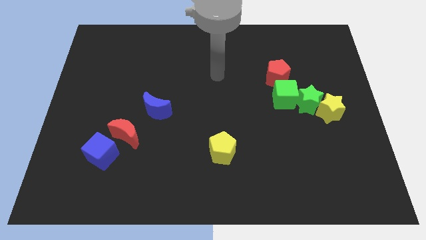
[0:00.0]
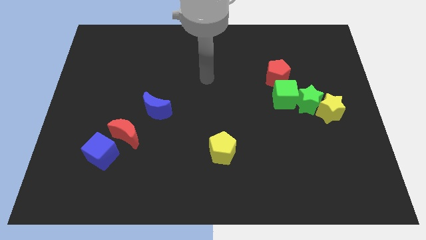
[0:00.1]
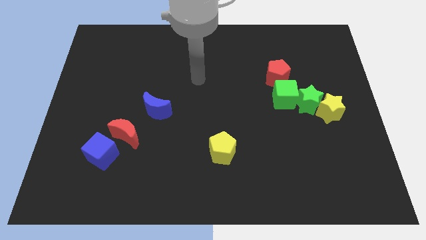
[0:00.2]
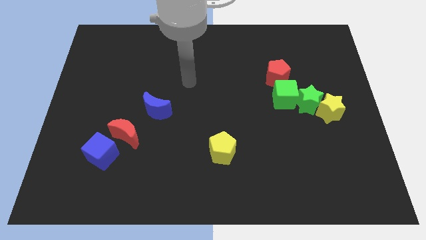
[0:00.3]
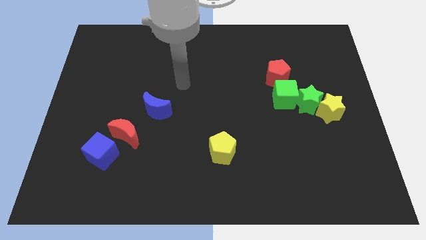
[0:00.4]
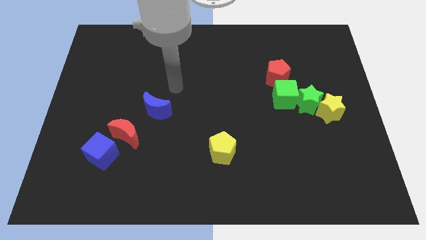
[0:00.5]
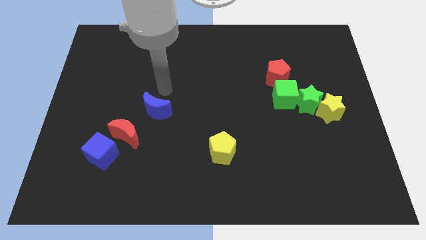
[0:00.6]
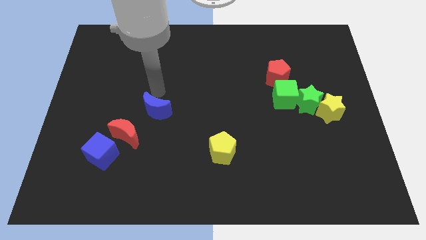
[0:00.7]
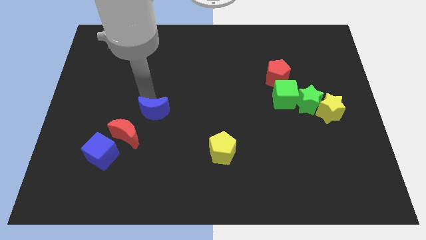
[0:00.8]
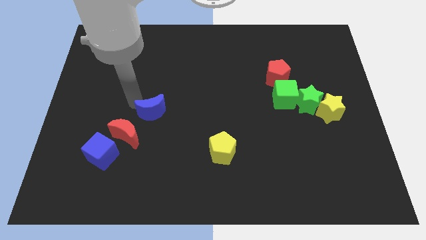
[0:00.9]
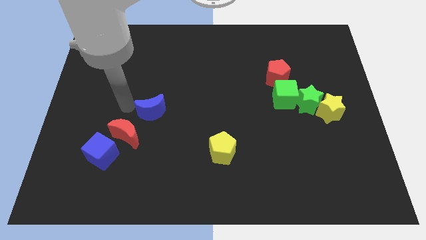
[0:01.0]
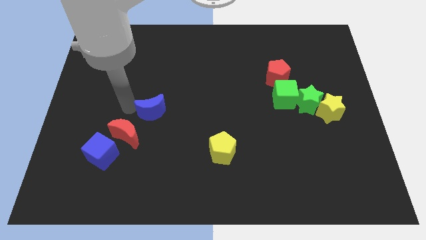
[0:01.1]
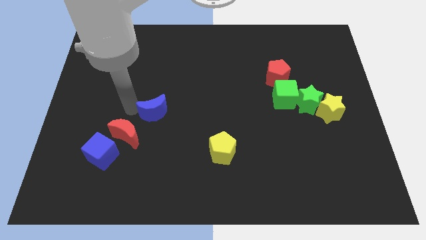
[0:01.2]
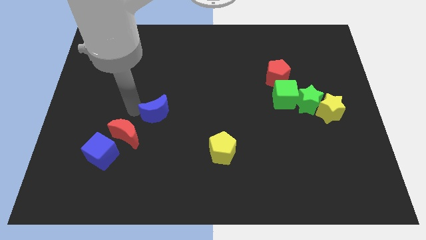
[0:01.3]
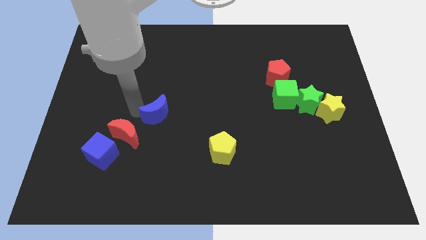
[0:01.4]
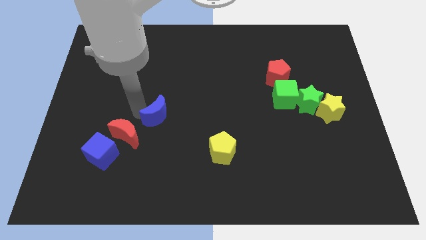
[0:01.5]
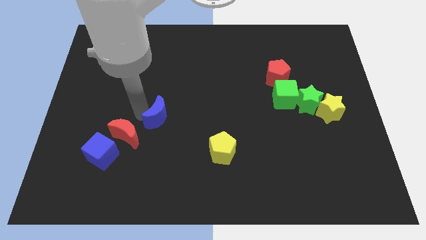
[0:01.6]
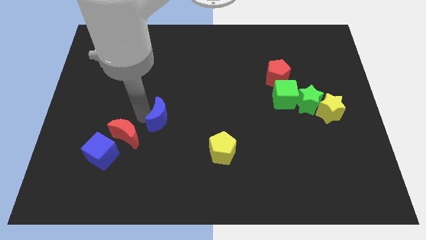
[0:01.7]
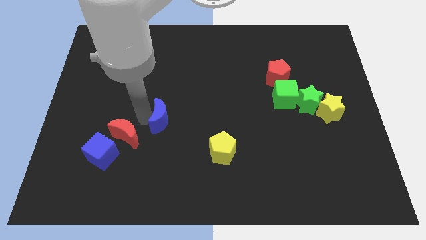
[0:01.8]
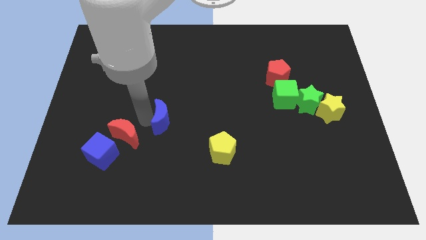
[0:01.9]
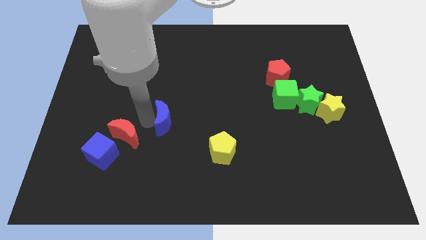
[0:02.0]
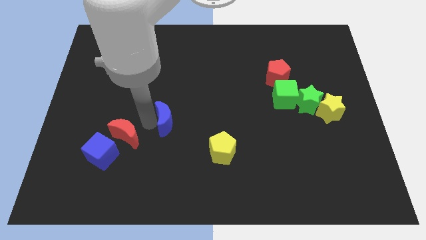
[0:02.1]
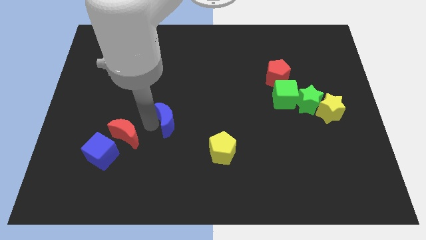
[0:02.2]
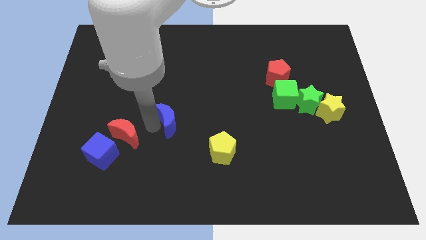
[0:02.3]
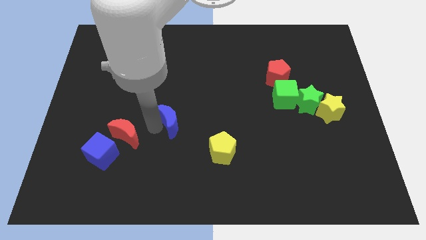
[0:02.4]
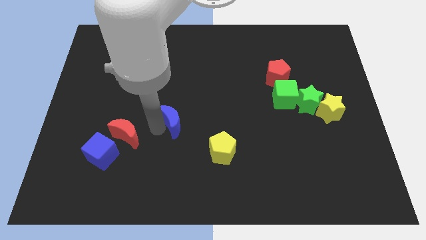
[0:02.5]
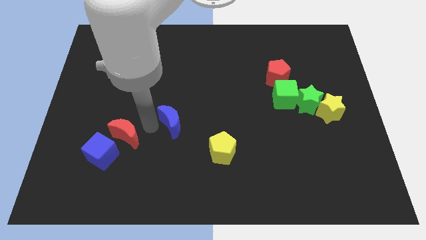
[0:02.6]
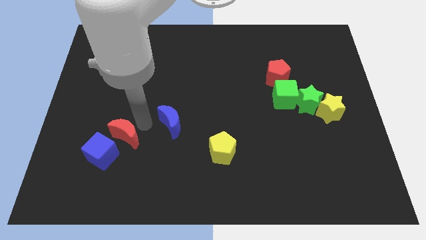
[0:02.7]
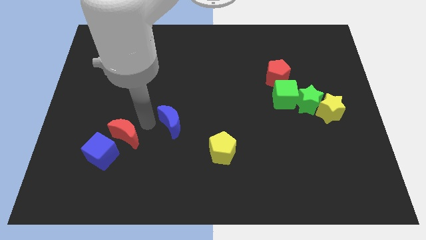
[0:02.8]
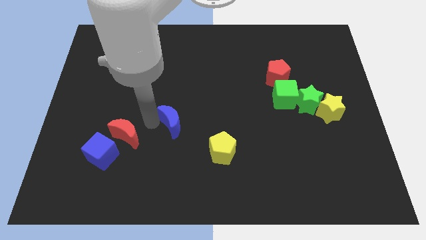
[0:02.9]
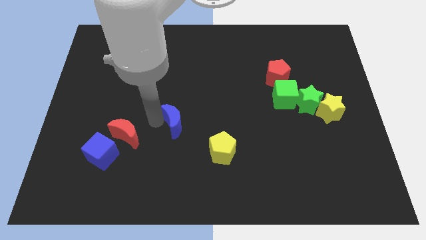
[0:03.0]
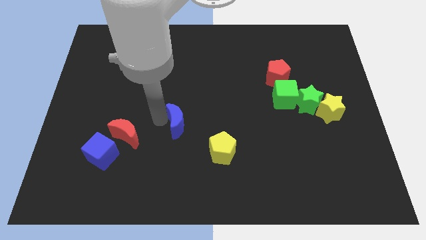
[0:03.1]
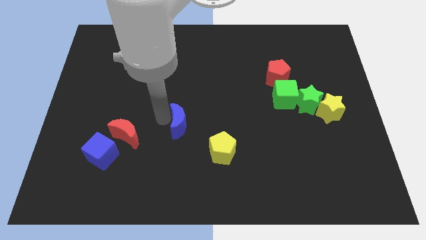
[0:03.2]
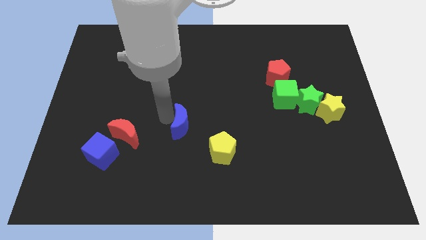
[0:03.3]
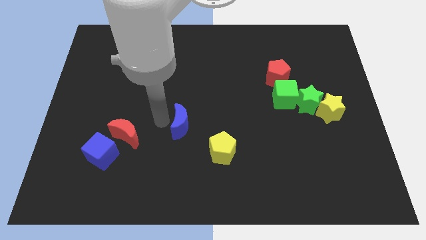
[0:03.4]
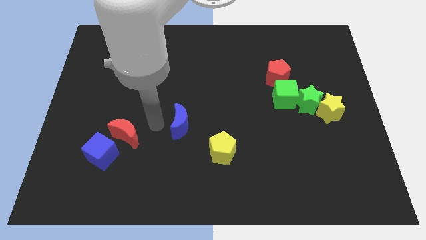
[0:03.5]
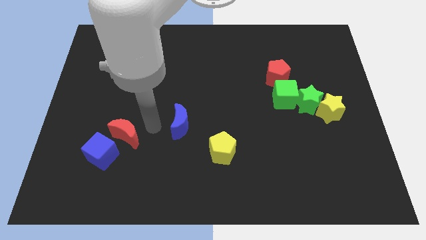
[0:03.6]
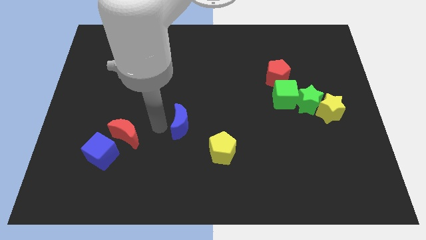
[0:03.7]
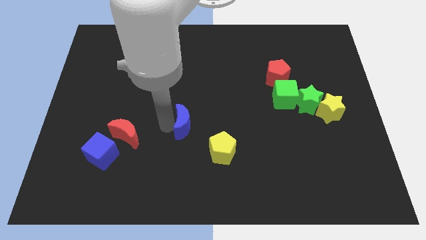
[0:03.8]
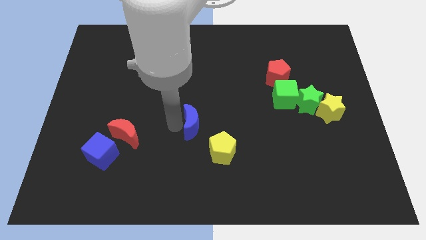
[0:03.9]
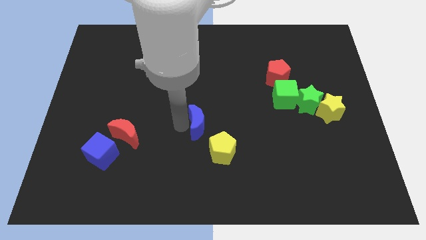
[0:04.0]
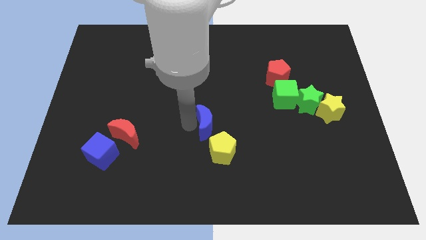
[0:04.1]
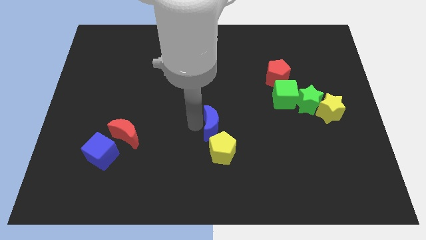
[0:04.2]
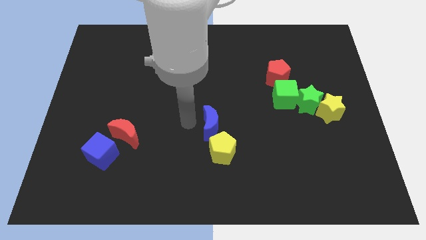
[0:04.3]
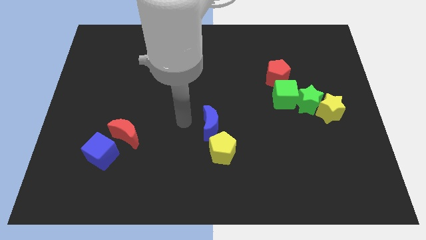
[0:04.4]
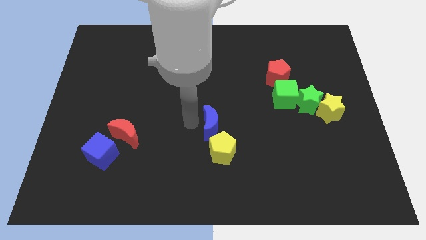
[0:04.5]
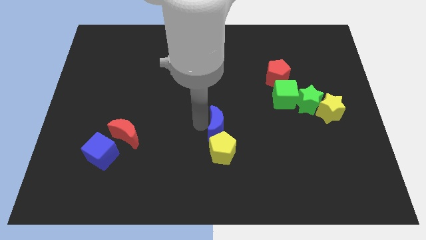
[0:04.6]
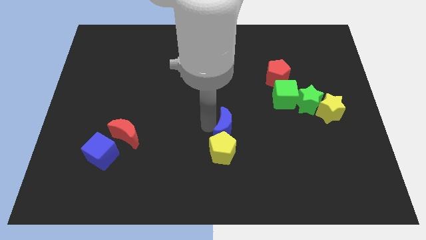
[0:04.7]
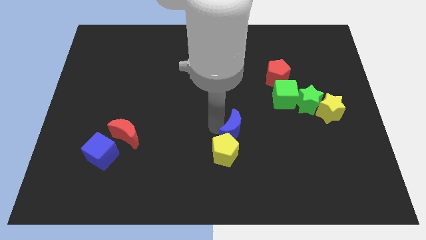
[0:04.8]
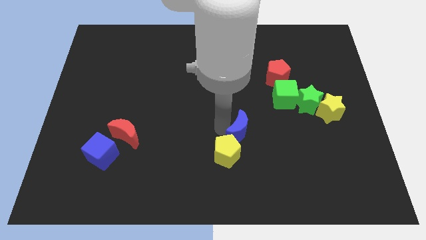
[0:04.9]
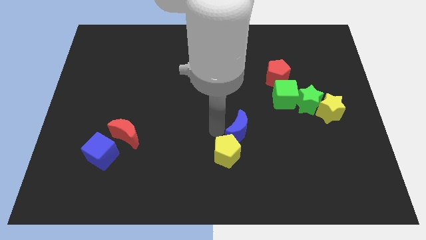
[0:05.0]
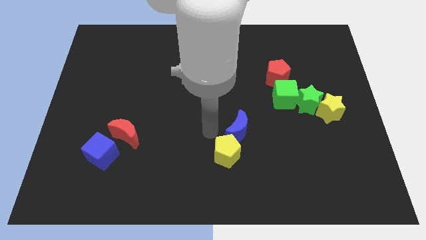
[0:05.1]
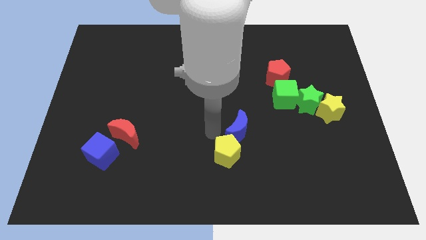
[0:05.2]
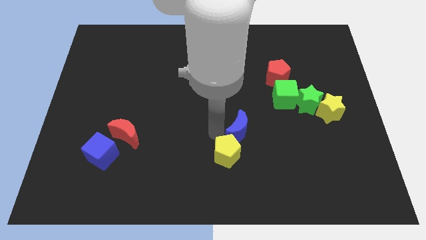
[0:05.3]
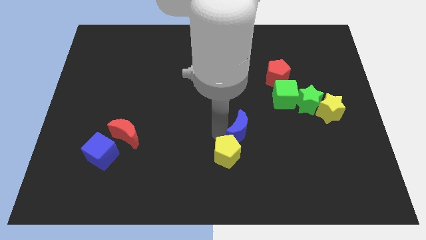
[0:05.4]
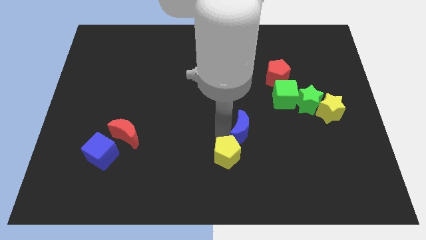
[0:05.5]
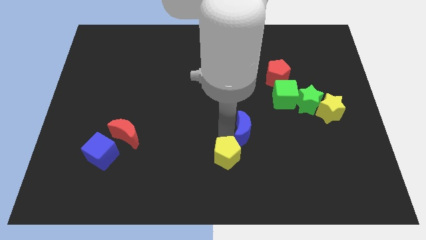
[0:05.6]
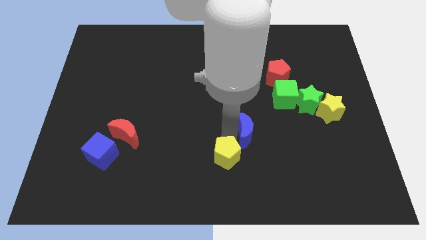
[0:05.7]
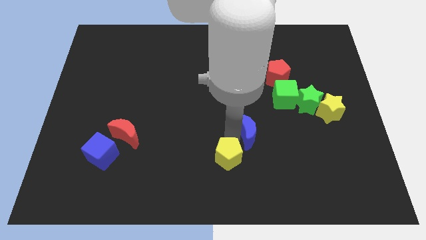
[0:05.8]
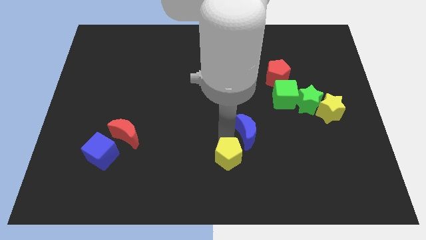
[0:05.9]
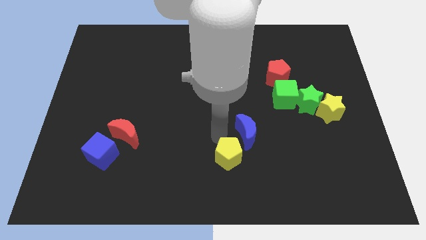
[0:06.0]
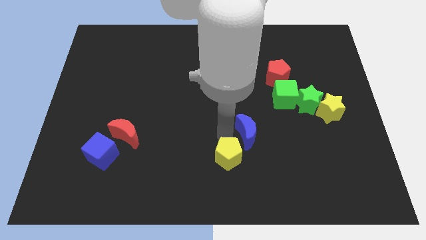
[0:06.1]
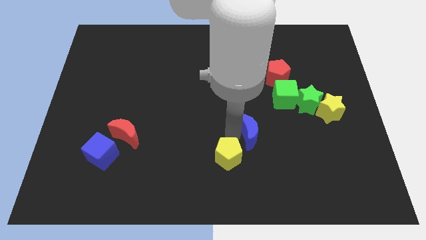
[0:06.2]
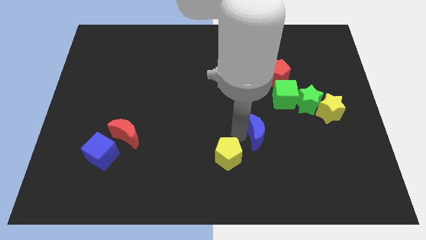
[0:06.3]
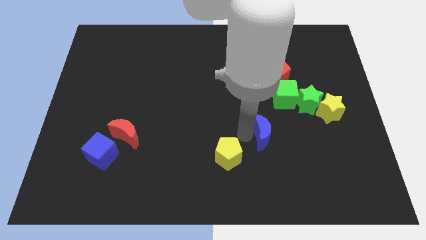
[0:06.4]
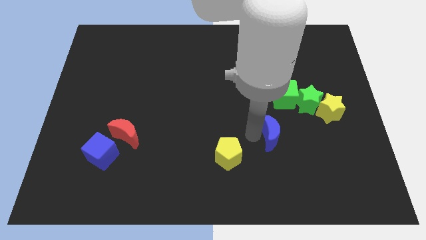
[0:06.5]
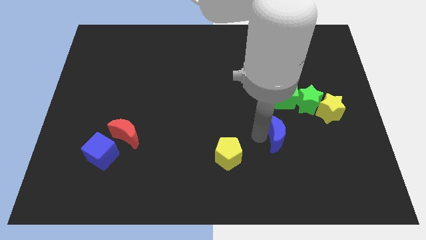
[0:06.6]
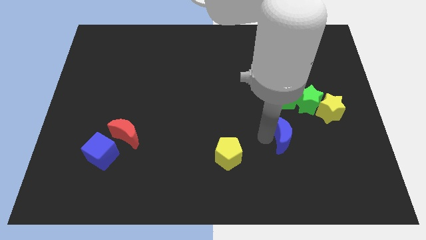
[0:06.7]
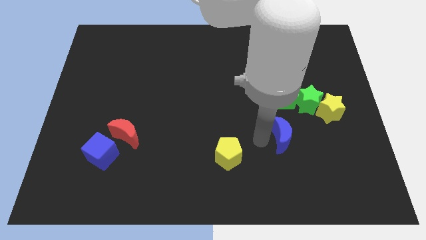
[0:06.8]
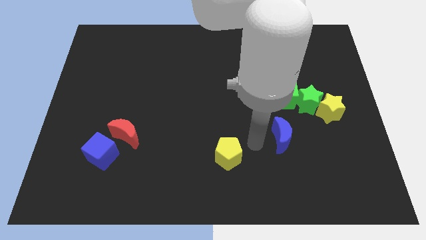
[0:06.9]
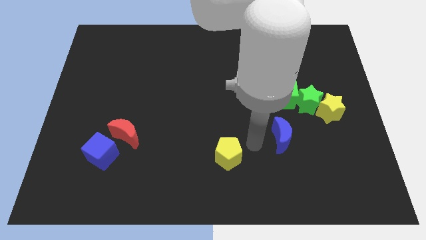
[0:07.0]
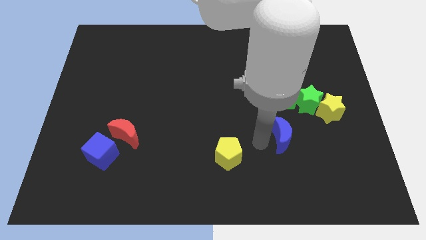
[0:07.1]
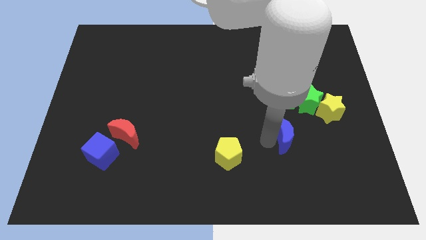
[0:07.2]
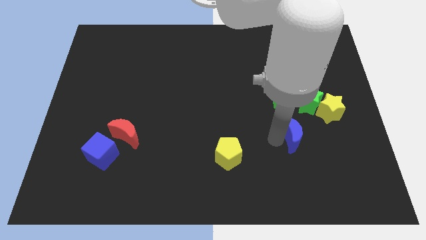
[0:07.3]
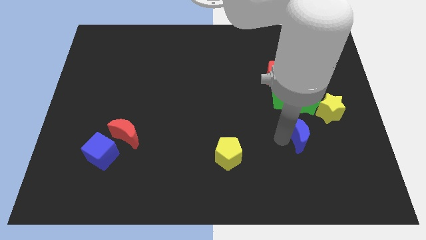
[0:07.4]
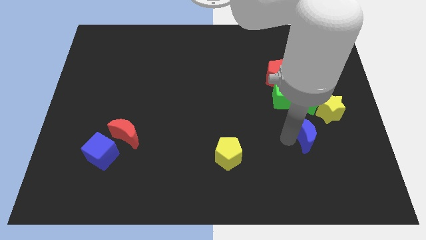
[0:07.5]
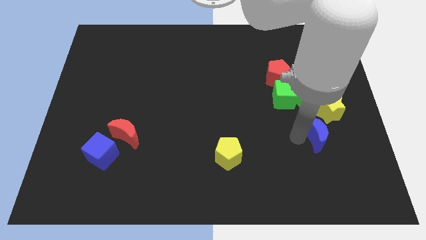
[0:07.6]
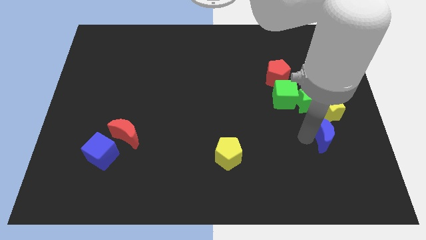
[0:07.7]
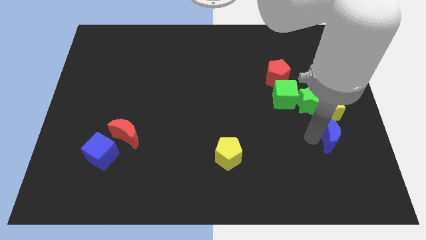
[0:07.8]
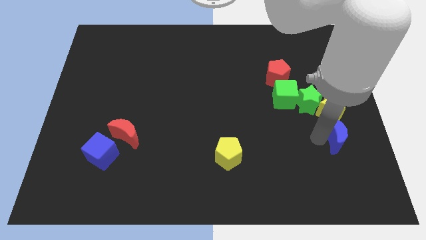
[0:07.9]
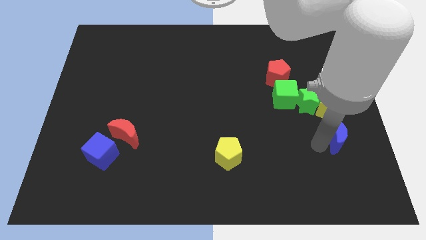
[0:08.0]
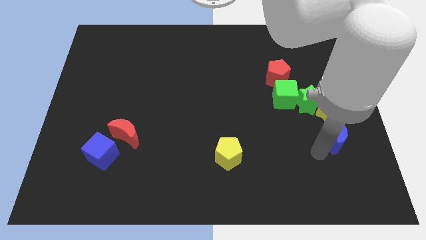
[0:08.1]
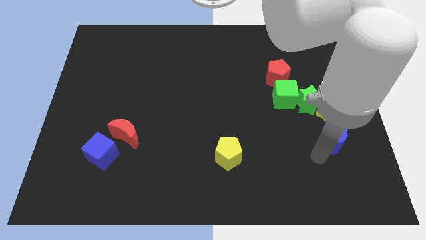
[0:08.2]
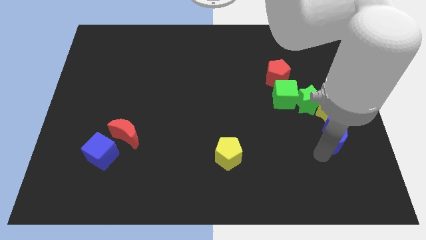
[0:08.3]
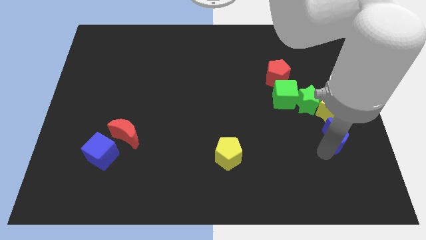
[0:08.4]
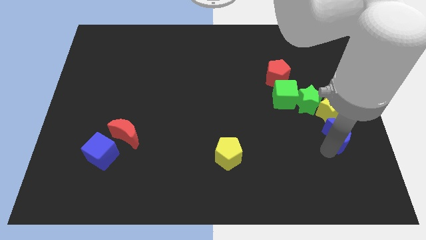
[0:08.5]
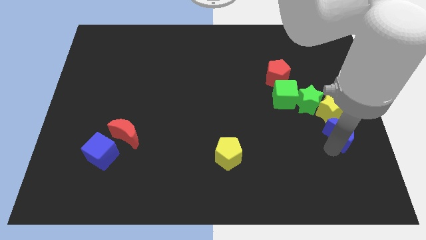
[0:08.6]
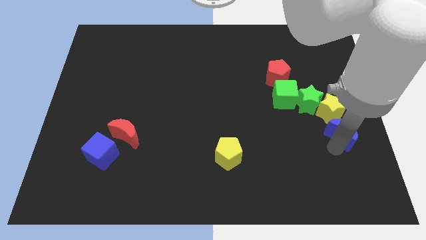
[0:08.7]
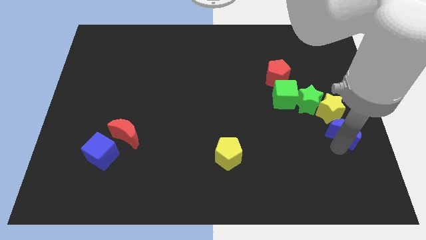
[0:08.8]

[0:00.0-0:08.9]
push the blue moon to the center right
